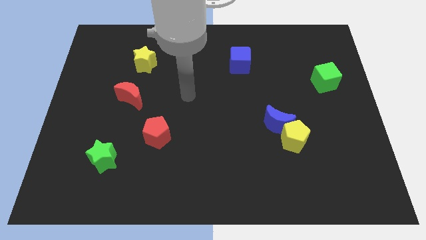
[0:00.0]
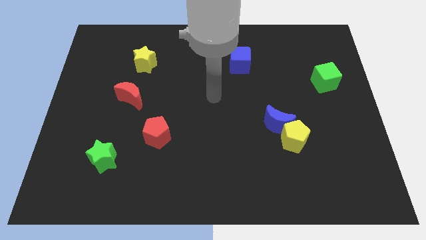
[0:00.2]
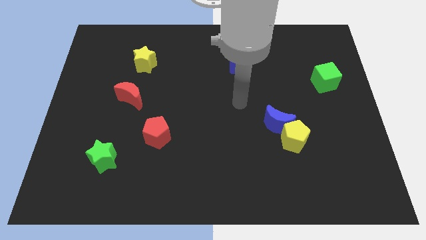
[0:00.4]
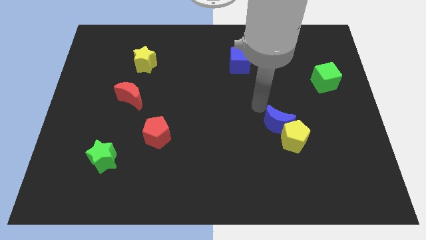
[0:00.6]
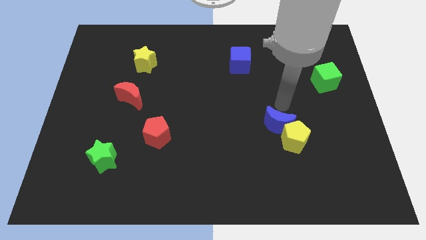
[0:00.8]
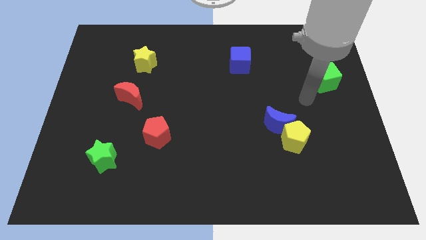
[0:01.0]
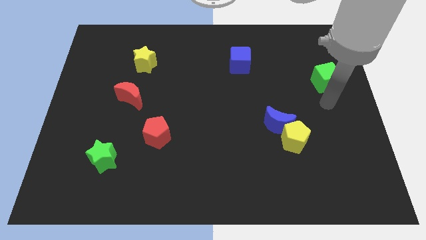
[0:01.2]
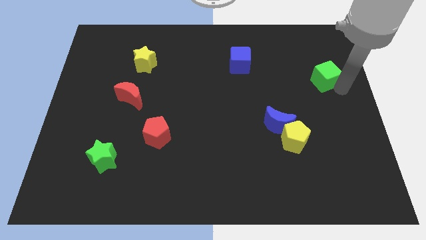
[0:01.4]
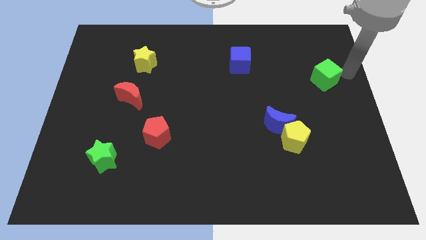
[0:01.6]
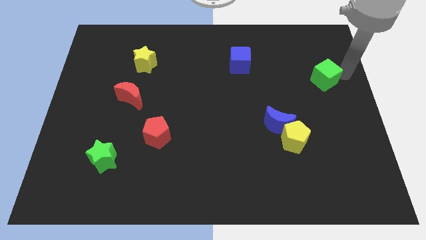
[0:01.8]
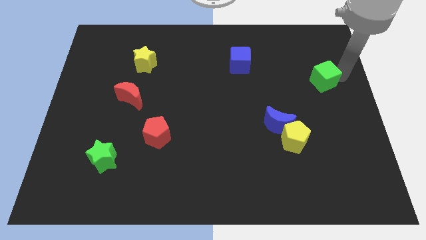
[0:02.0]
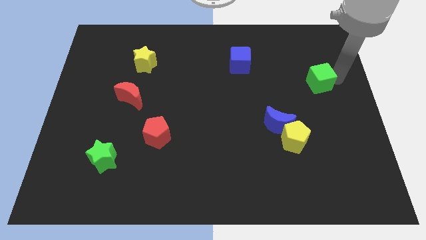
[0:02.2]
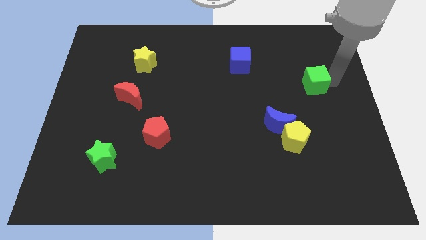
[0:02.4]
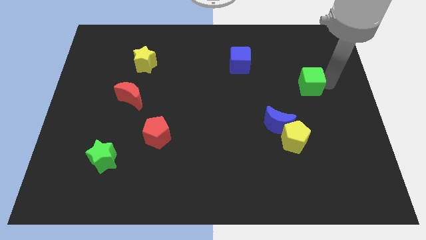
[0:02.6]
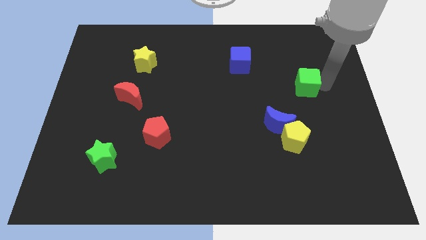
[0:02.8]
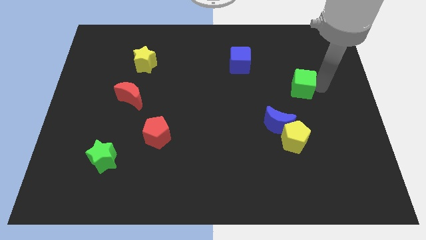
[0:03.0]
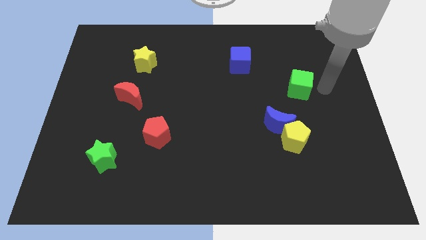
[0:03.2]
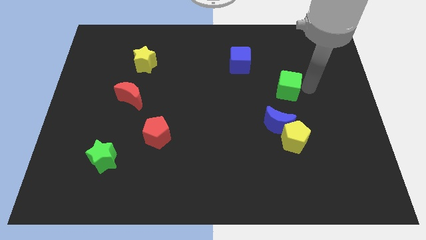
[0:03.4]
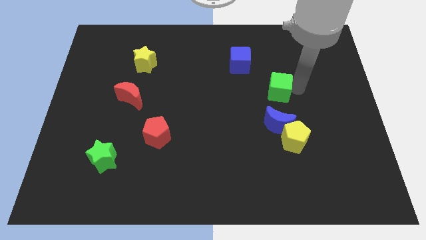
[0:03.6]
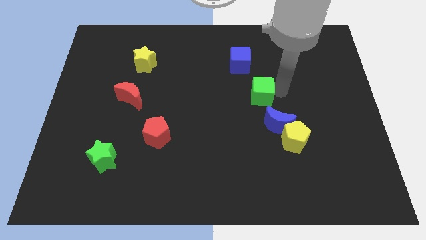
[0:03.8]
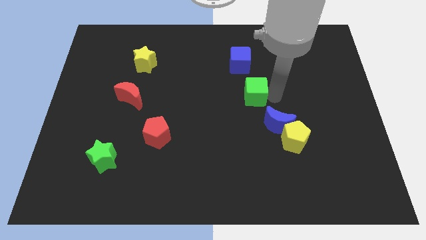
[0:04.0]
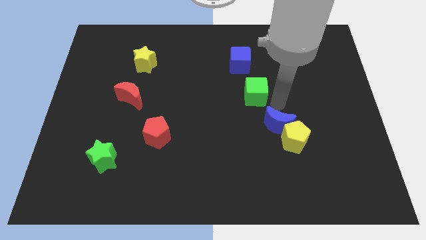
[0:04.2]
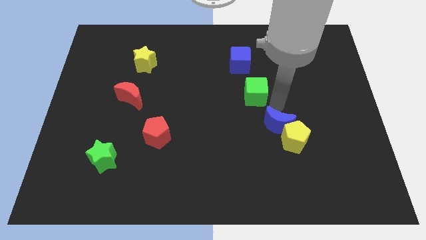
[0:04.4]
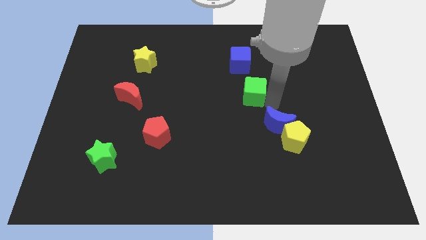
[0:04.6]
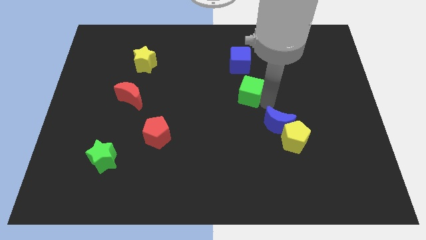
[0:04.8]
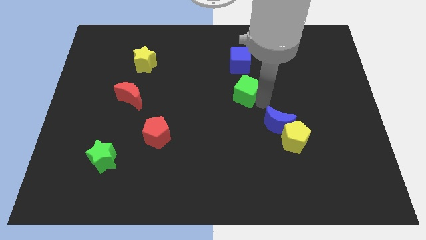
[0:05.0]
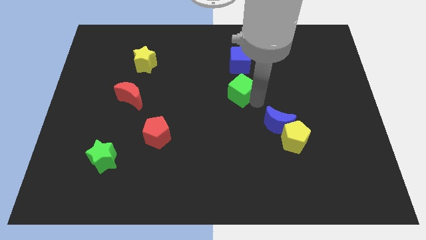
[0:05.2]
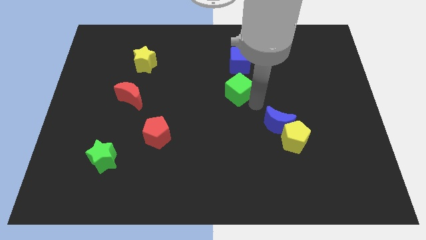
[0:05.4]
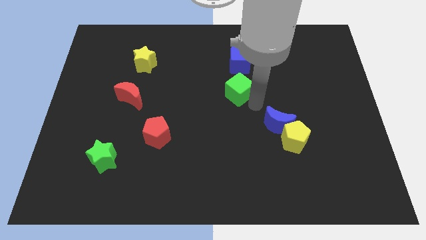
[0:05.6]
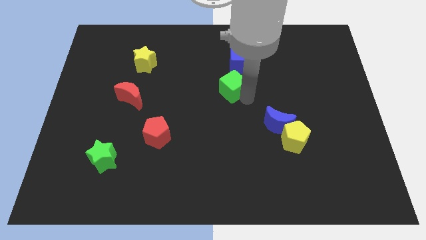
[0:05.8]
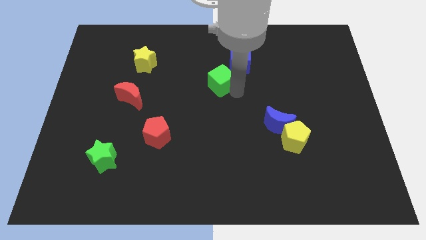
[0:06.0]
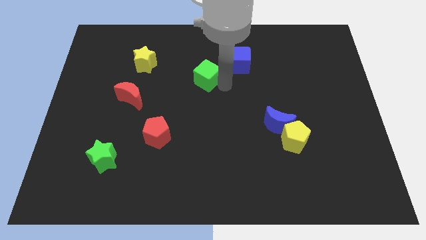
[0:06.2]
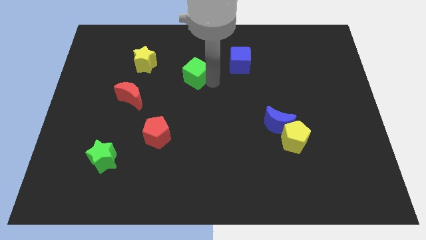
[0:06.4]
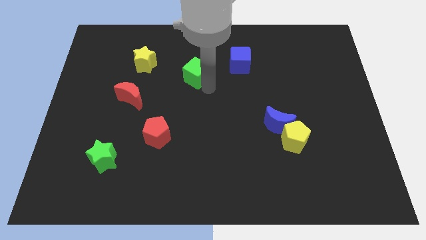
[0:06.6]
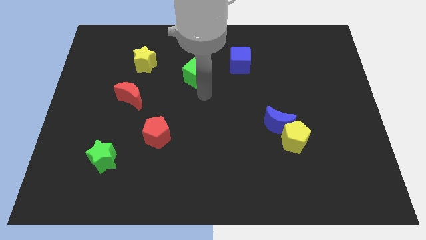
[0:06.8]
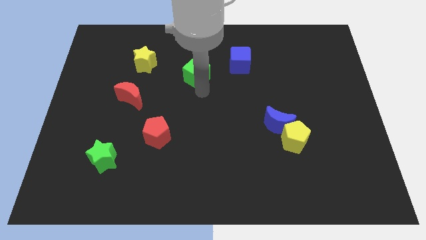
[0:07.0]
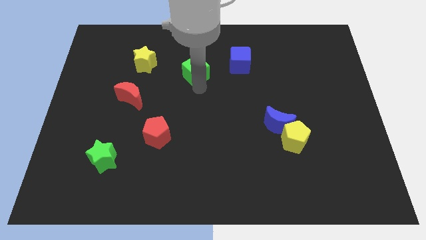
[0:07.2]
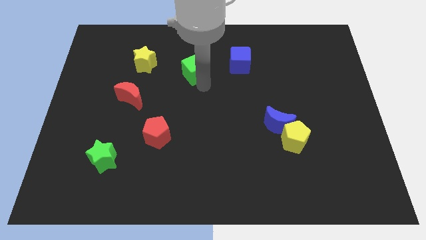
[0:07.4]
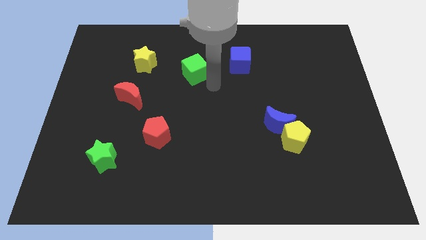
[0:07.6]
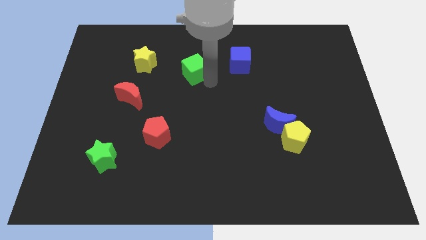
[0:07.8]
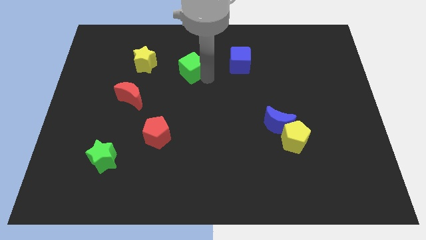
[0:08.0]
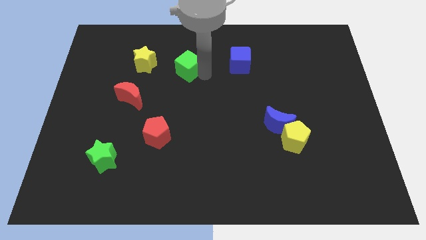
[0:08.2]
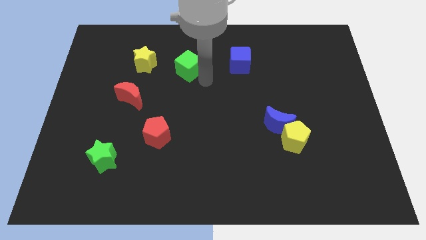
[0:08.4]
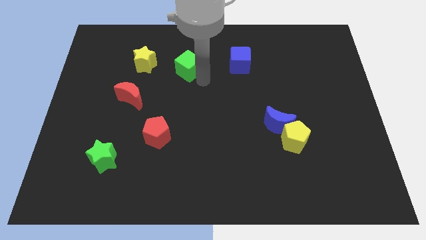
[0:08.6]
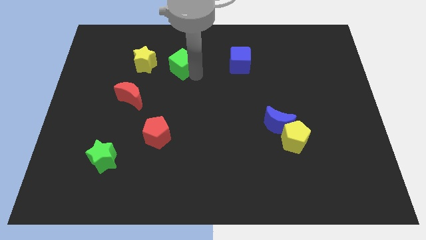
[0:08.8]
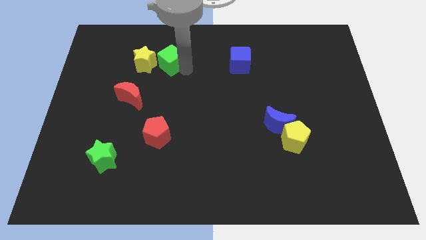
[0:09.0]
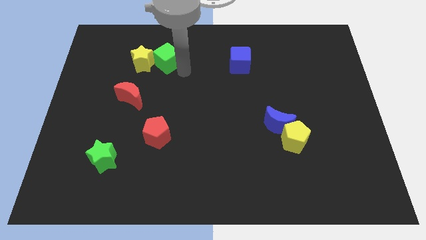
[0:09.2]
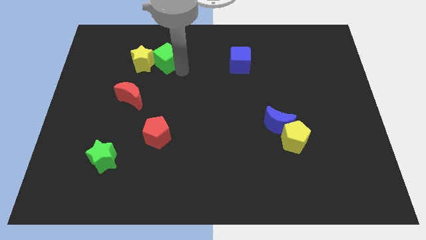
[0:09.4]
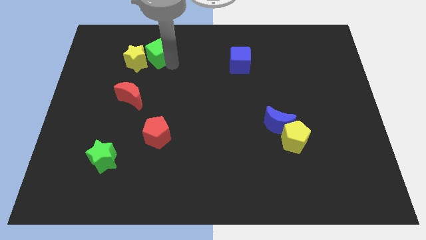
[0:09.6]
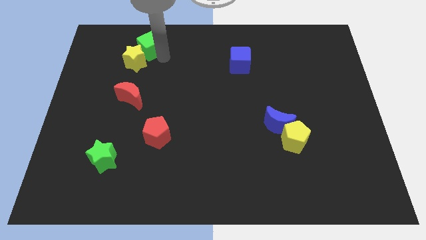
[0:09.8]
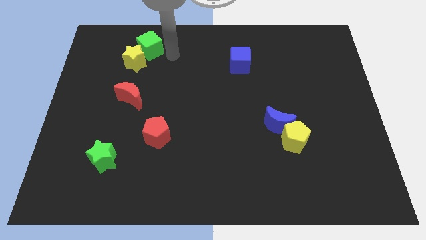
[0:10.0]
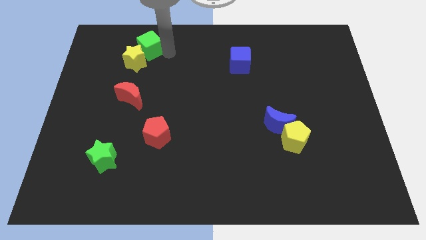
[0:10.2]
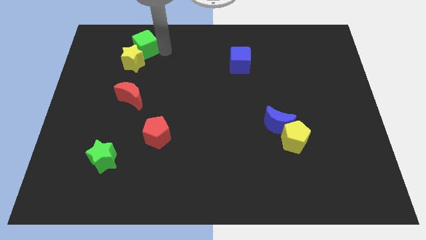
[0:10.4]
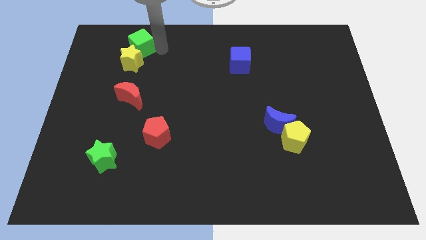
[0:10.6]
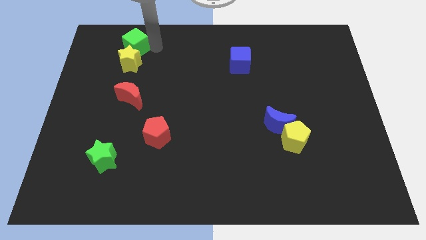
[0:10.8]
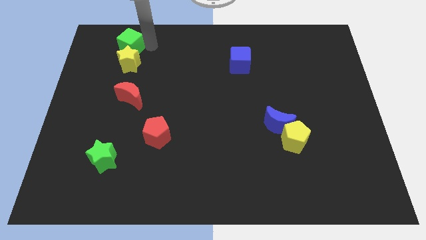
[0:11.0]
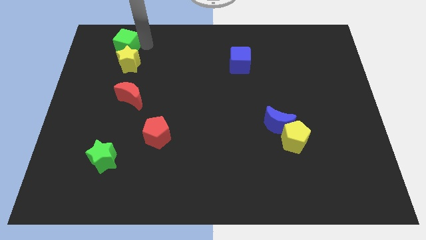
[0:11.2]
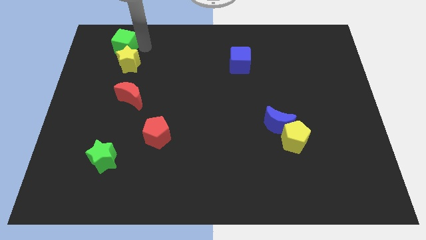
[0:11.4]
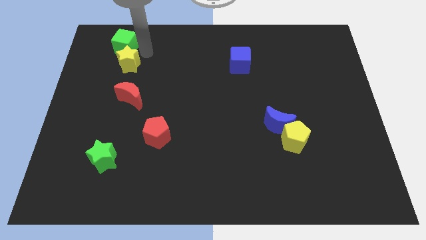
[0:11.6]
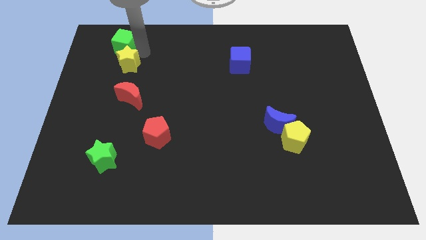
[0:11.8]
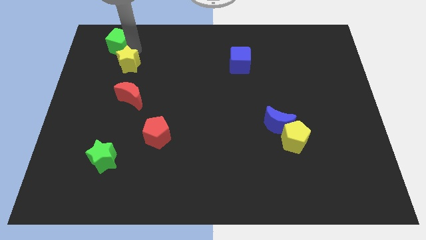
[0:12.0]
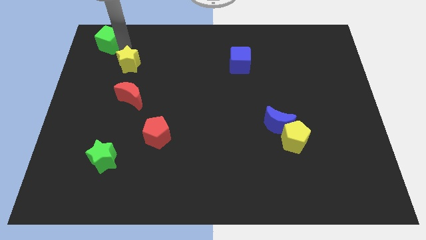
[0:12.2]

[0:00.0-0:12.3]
put the green cube to the top left corner
